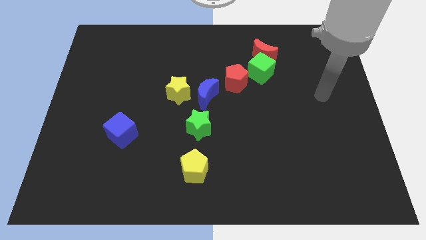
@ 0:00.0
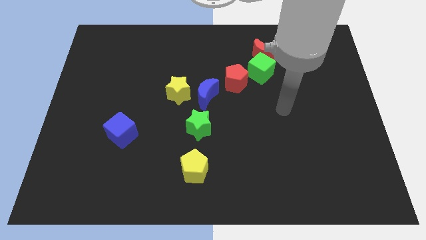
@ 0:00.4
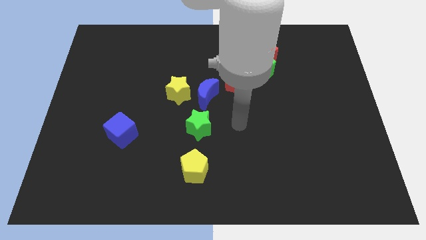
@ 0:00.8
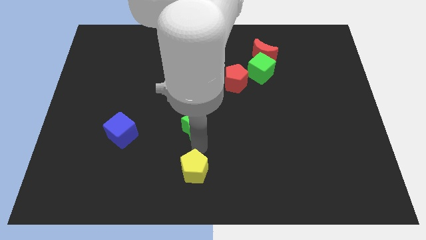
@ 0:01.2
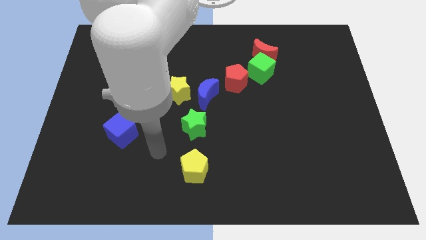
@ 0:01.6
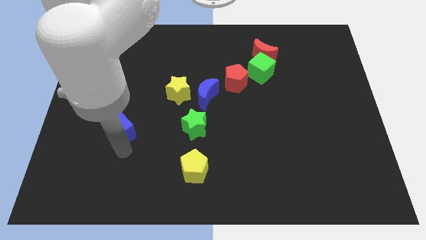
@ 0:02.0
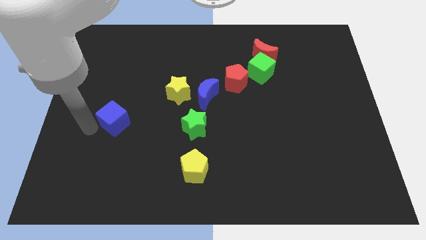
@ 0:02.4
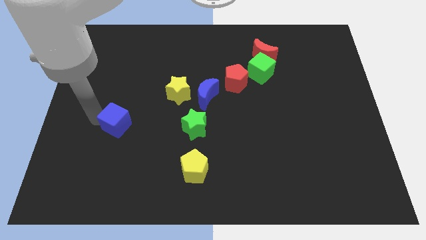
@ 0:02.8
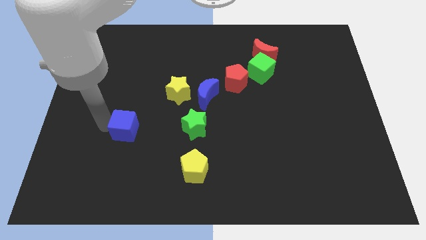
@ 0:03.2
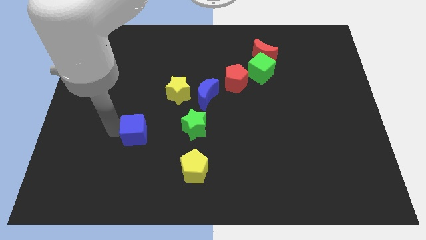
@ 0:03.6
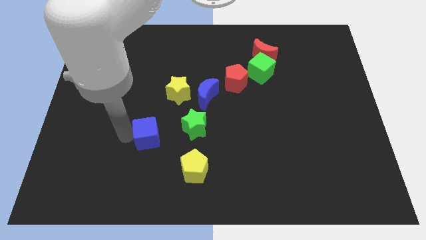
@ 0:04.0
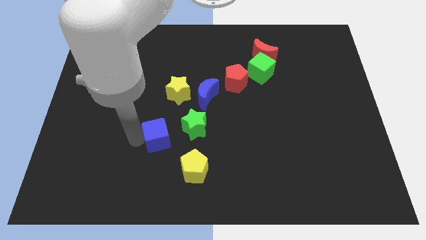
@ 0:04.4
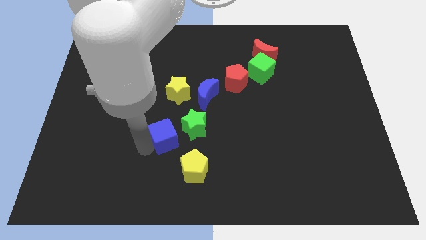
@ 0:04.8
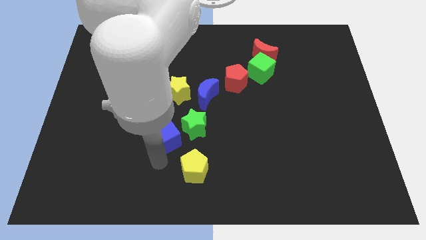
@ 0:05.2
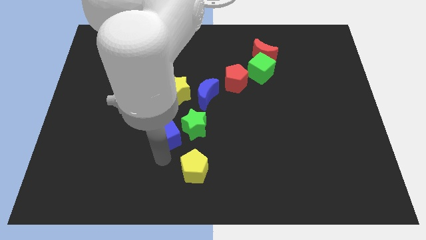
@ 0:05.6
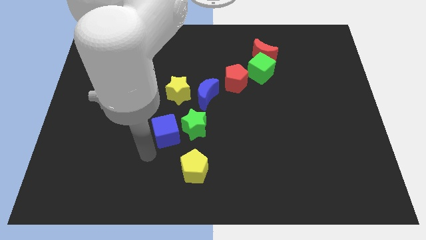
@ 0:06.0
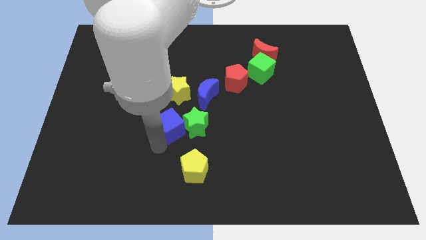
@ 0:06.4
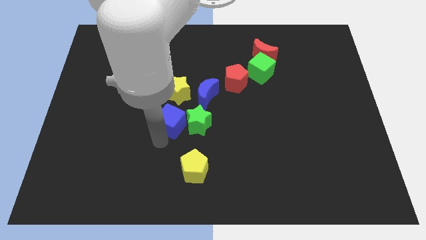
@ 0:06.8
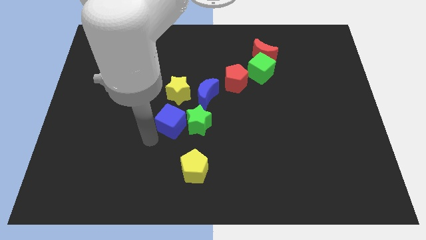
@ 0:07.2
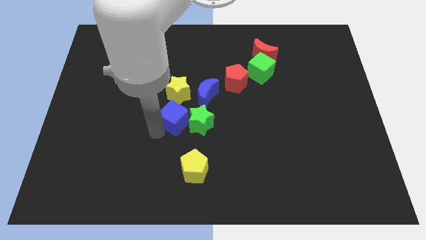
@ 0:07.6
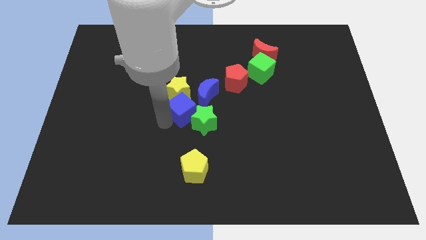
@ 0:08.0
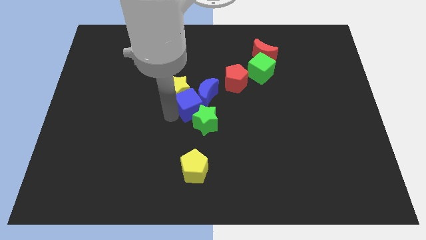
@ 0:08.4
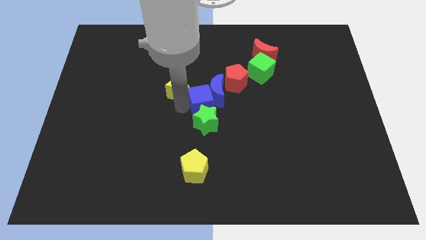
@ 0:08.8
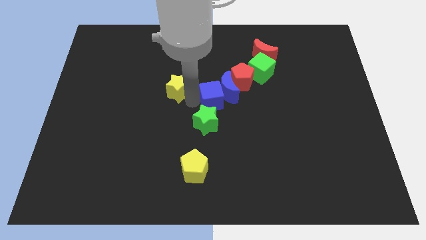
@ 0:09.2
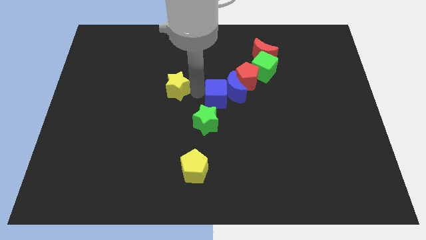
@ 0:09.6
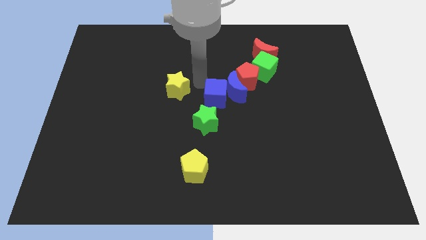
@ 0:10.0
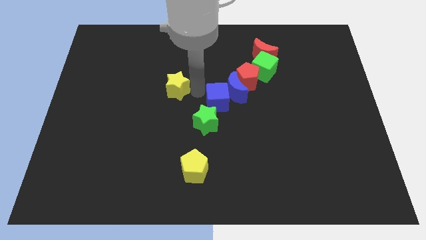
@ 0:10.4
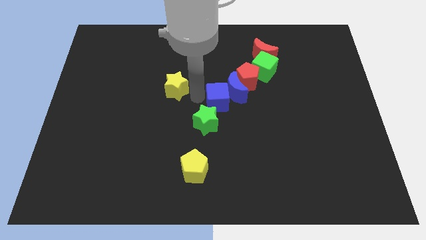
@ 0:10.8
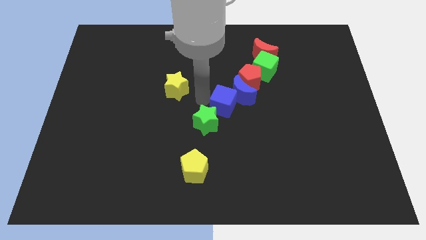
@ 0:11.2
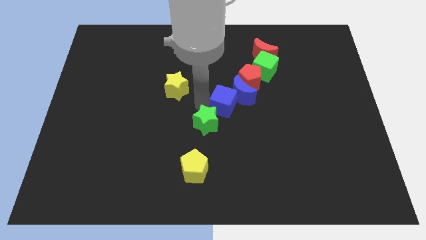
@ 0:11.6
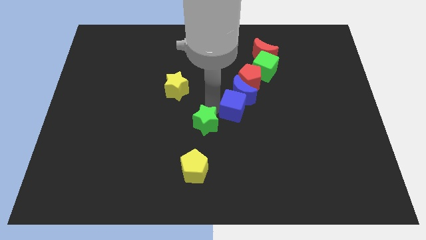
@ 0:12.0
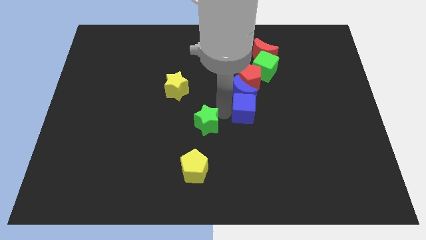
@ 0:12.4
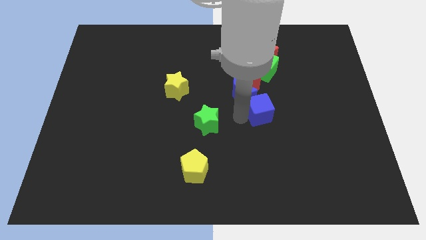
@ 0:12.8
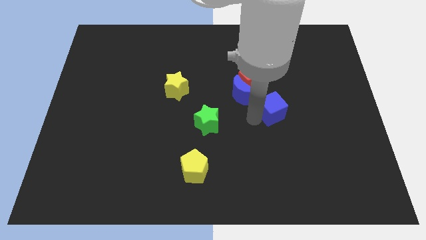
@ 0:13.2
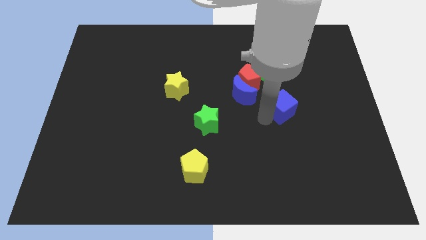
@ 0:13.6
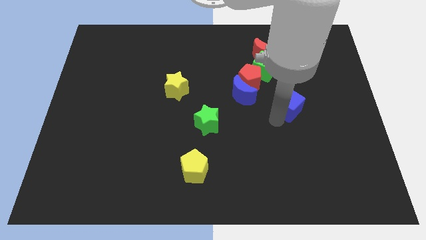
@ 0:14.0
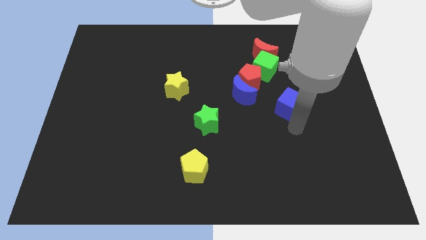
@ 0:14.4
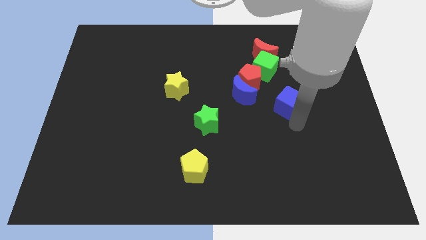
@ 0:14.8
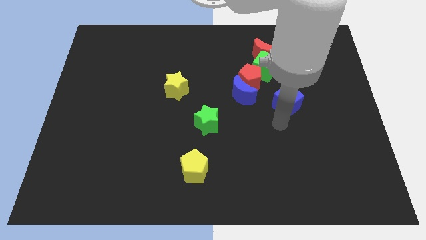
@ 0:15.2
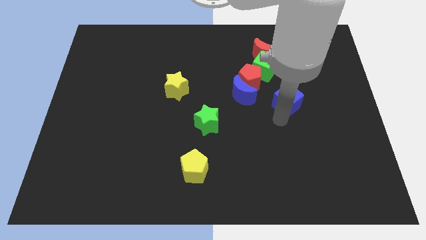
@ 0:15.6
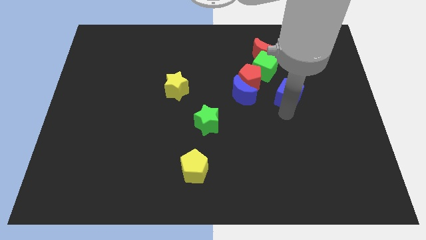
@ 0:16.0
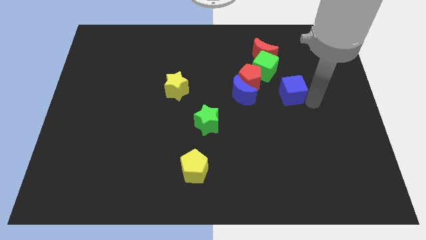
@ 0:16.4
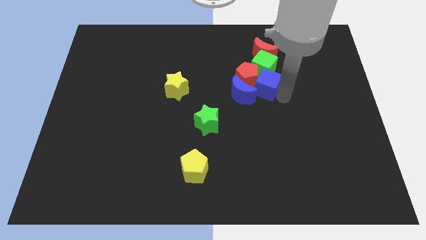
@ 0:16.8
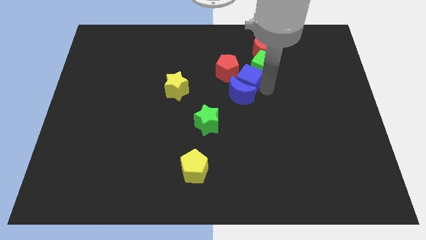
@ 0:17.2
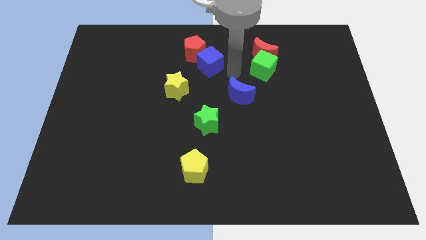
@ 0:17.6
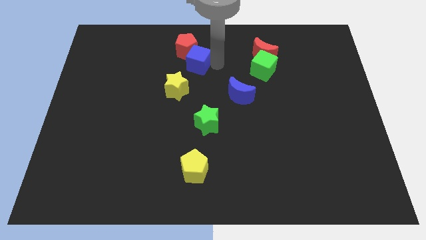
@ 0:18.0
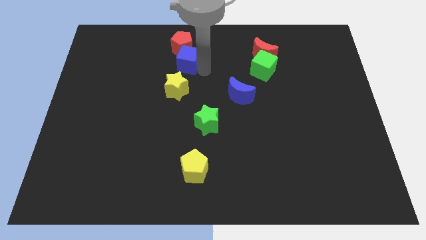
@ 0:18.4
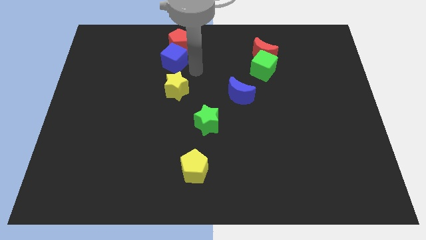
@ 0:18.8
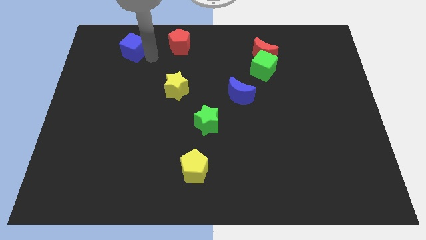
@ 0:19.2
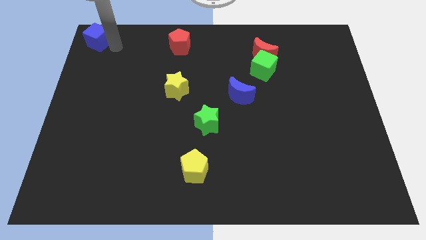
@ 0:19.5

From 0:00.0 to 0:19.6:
put the blue cube to the top left of the board

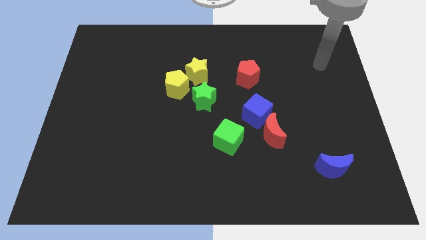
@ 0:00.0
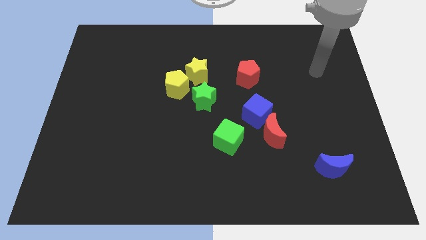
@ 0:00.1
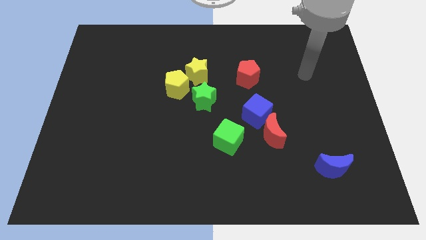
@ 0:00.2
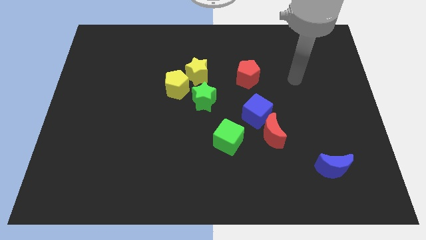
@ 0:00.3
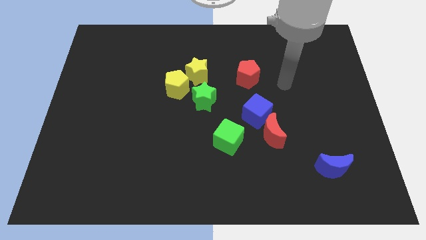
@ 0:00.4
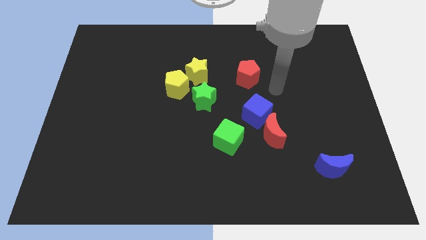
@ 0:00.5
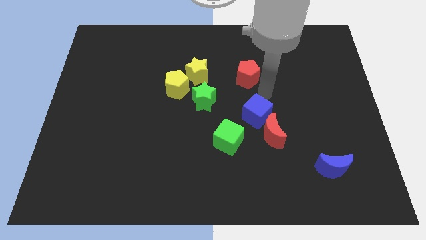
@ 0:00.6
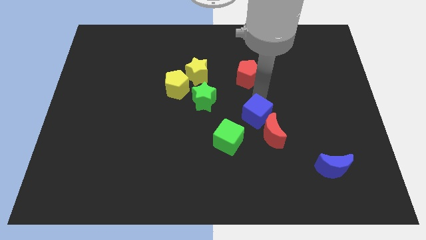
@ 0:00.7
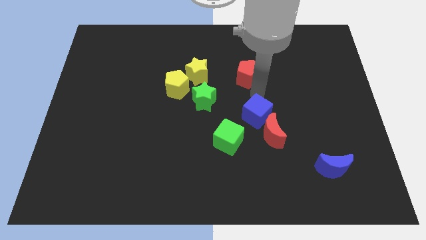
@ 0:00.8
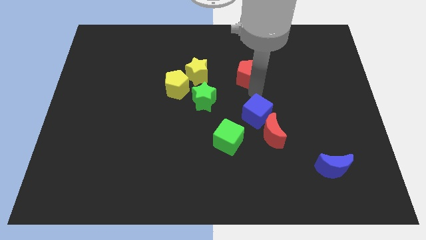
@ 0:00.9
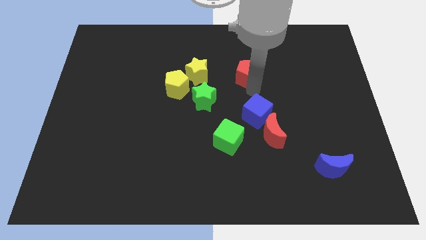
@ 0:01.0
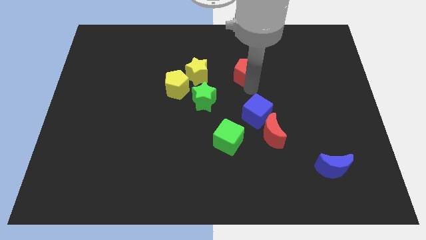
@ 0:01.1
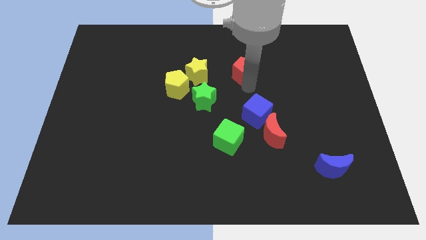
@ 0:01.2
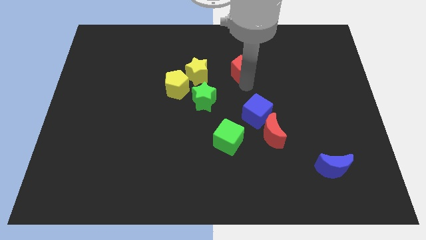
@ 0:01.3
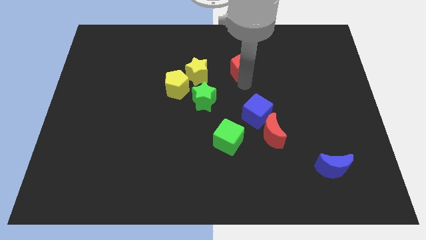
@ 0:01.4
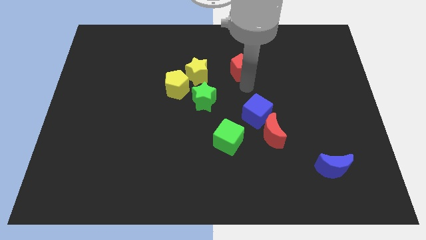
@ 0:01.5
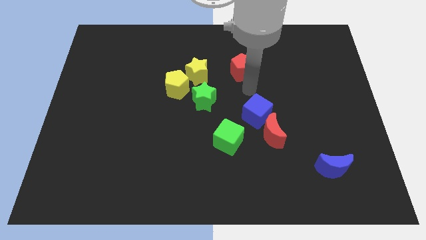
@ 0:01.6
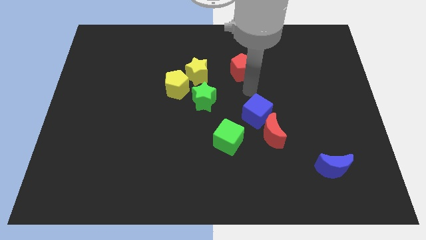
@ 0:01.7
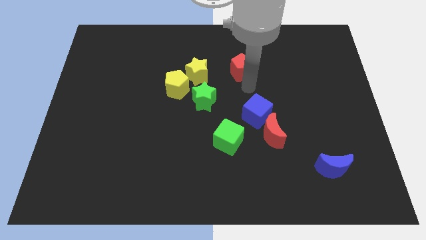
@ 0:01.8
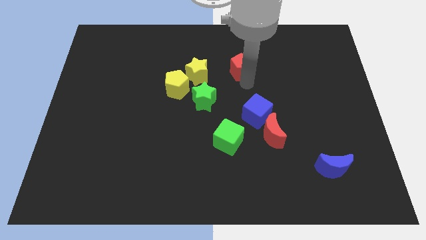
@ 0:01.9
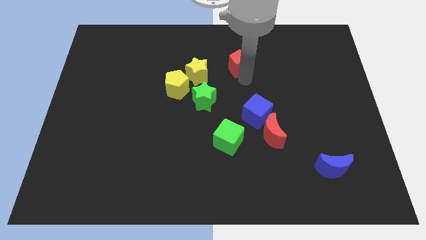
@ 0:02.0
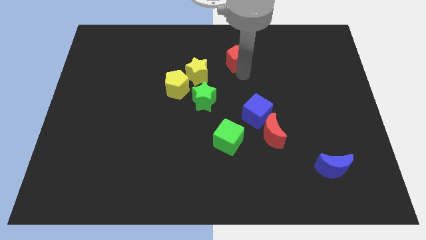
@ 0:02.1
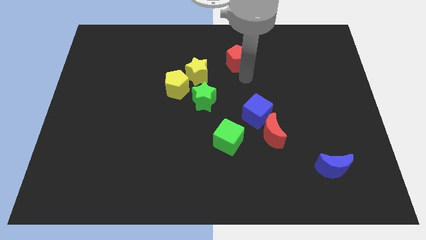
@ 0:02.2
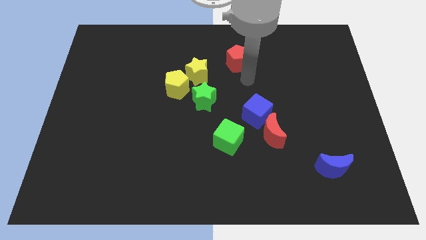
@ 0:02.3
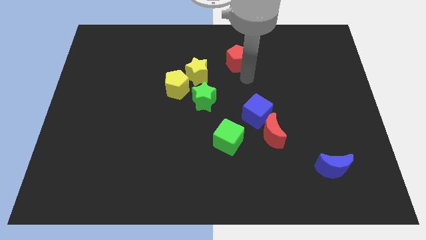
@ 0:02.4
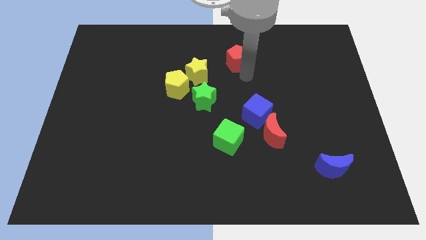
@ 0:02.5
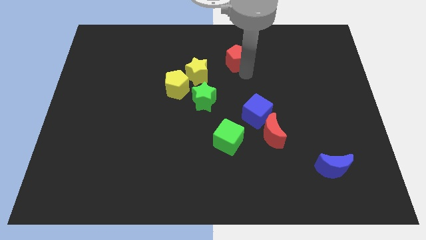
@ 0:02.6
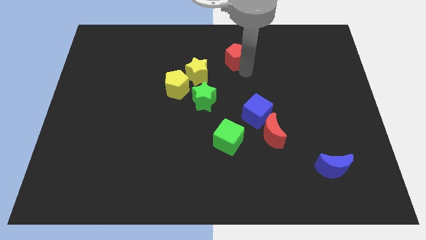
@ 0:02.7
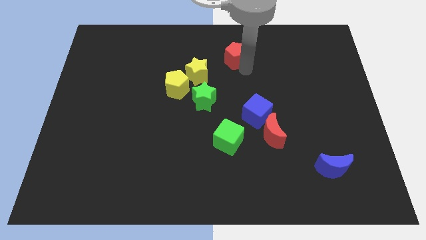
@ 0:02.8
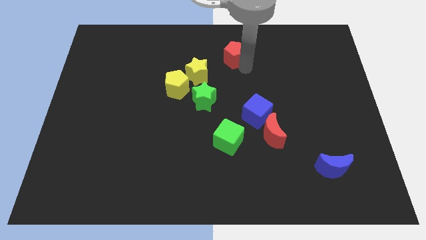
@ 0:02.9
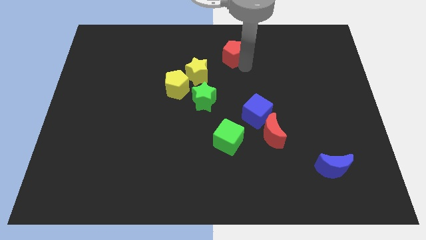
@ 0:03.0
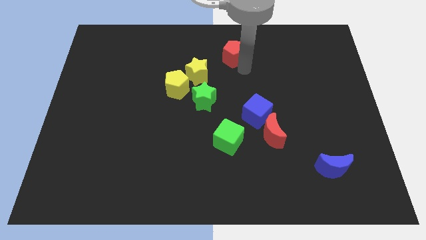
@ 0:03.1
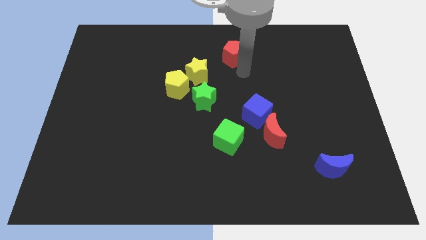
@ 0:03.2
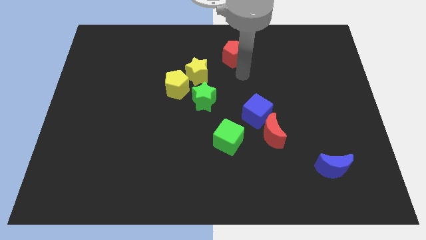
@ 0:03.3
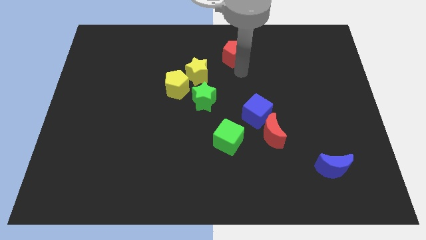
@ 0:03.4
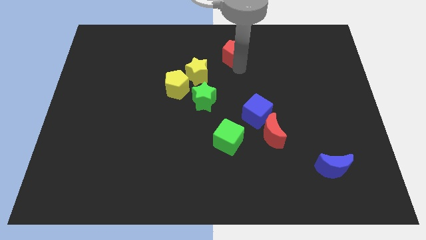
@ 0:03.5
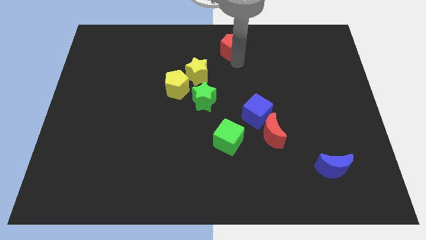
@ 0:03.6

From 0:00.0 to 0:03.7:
put the red pentagon to the towards your base
